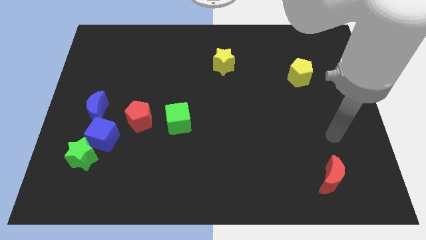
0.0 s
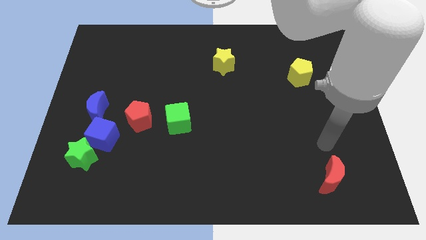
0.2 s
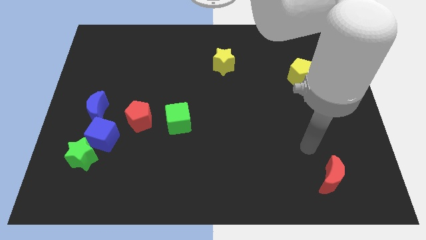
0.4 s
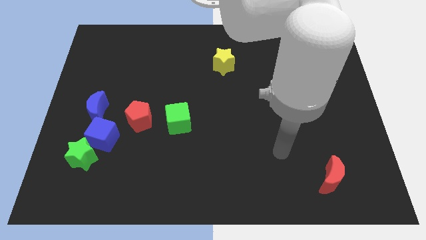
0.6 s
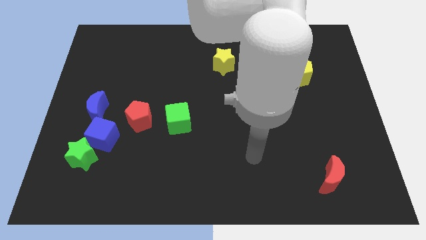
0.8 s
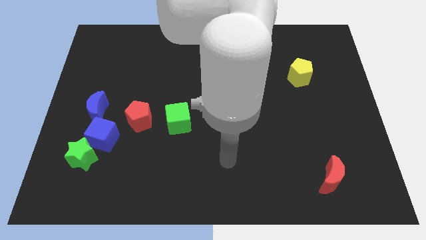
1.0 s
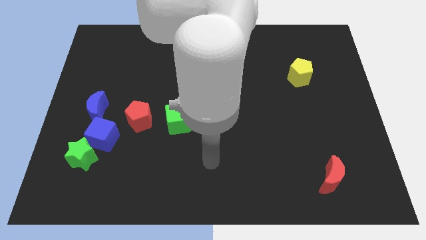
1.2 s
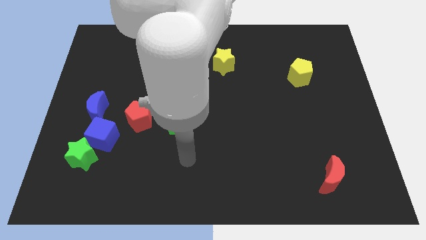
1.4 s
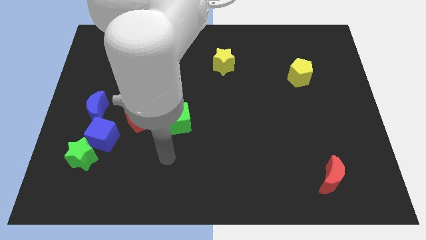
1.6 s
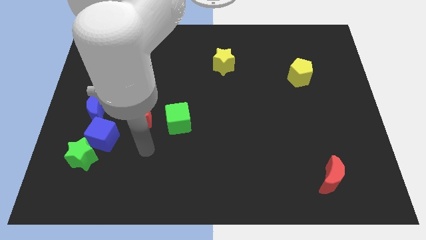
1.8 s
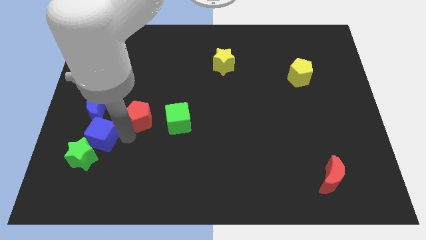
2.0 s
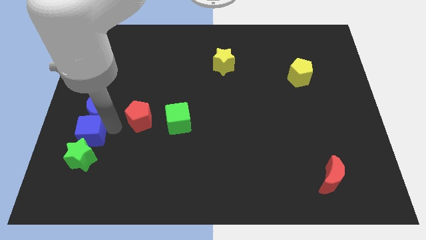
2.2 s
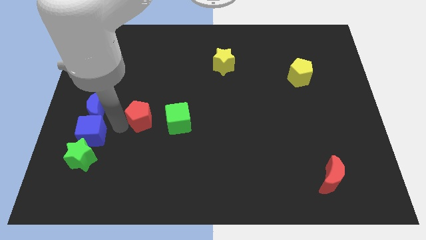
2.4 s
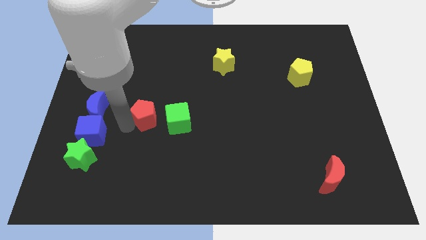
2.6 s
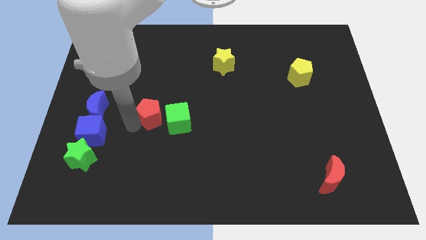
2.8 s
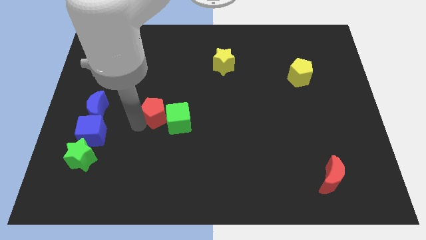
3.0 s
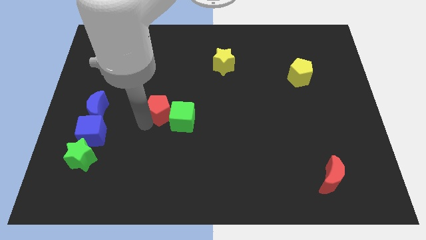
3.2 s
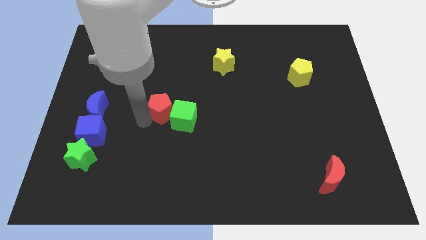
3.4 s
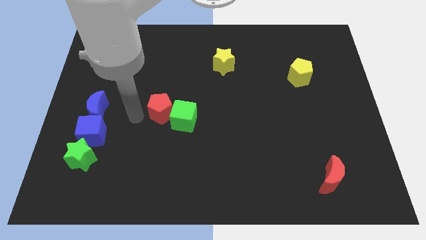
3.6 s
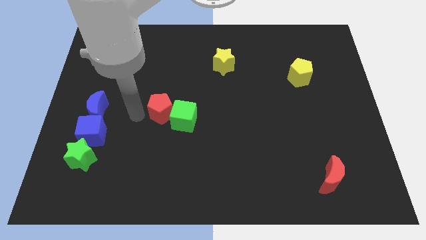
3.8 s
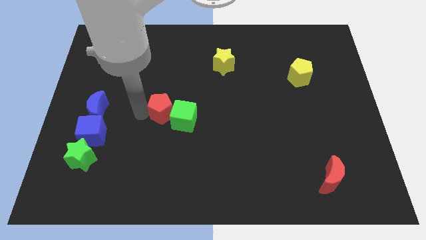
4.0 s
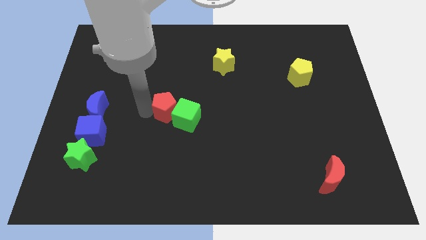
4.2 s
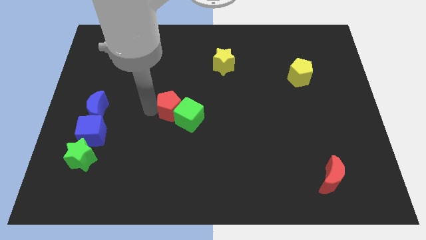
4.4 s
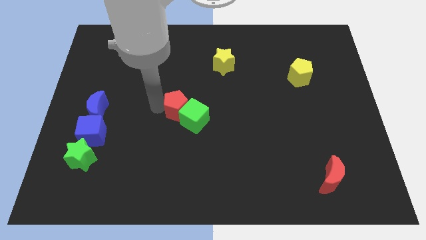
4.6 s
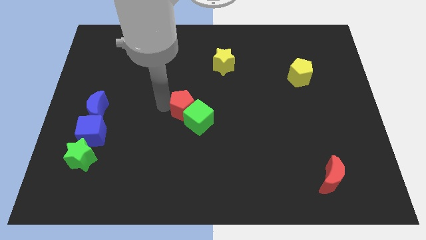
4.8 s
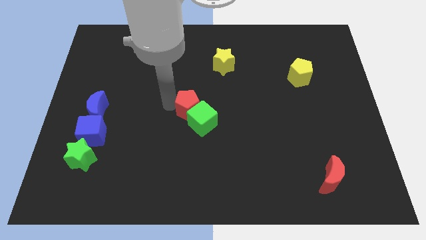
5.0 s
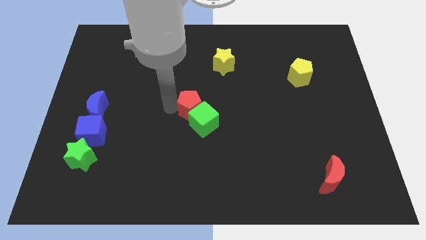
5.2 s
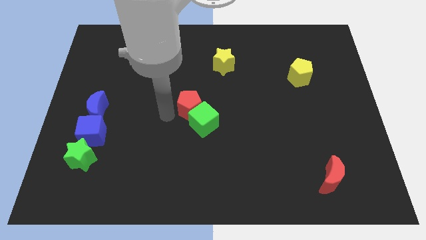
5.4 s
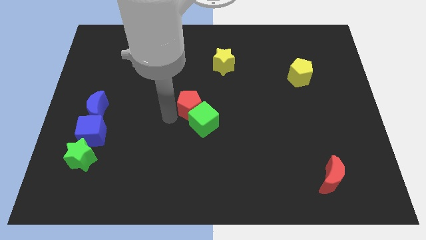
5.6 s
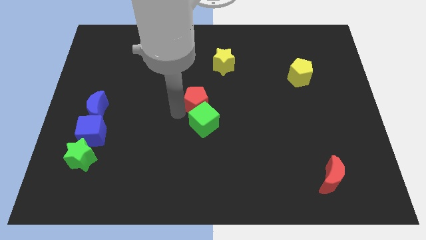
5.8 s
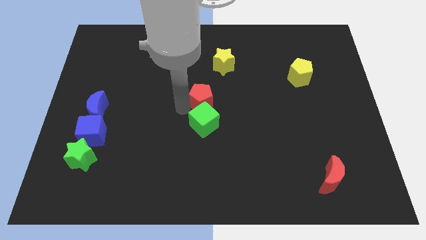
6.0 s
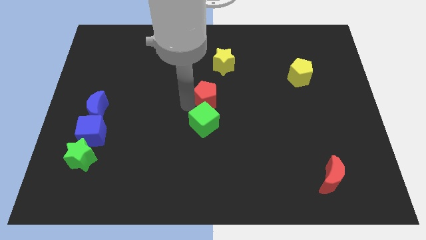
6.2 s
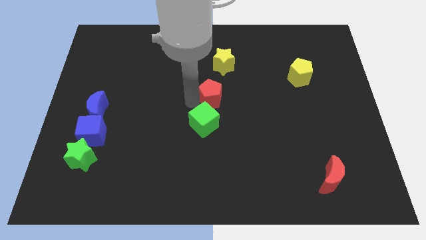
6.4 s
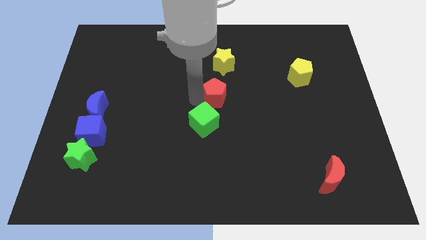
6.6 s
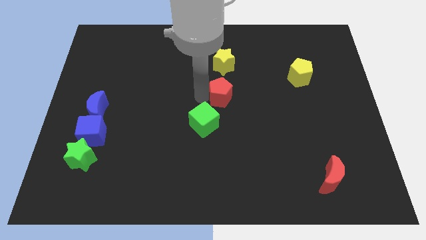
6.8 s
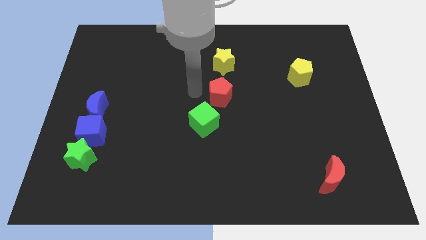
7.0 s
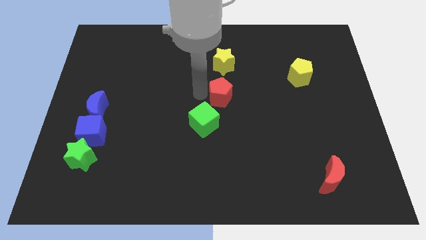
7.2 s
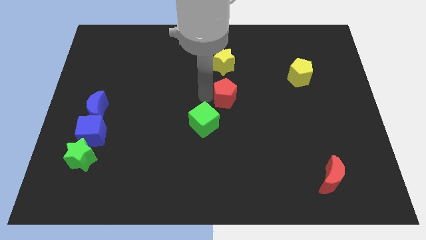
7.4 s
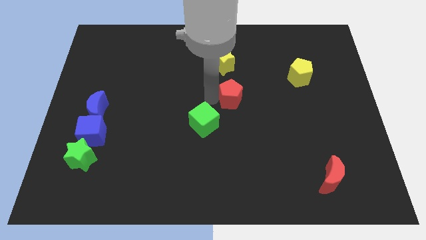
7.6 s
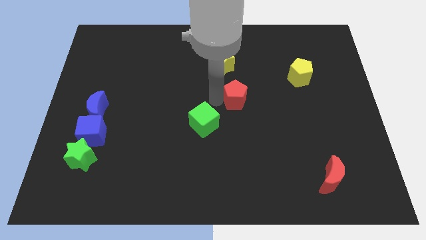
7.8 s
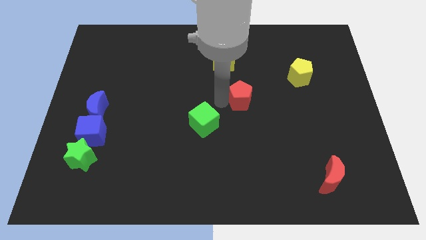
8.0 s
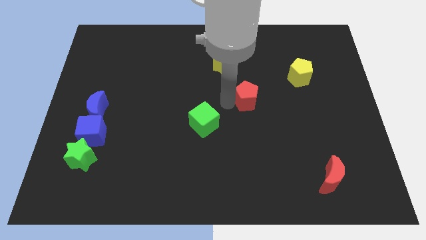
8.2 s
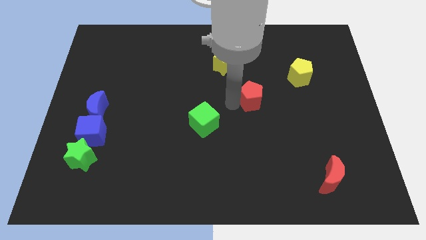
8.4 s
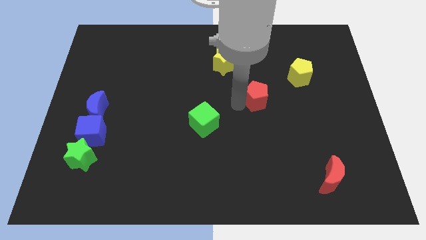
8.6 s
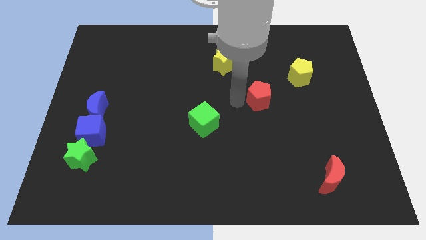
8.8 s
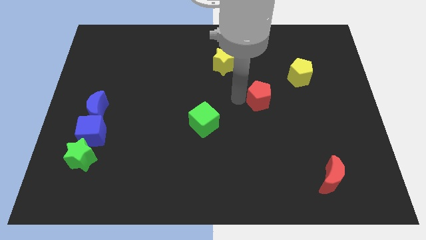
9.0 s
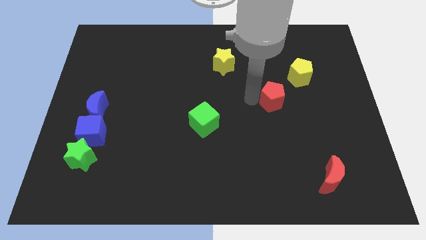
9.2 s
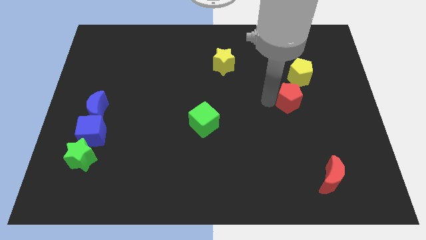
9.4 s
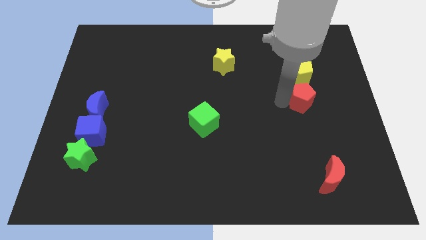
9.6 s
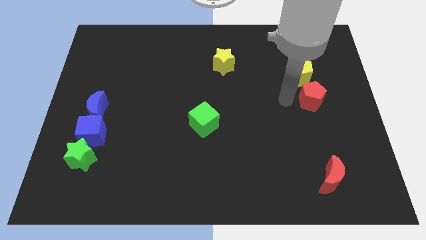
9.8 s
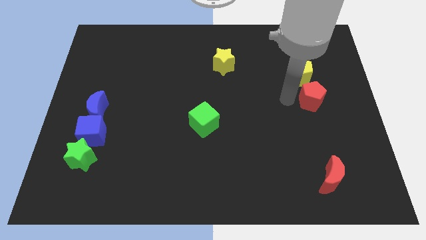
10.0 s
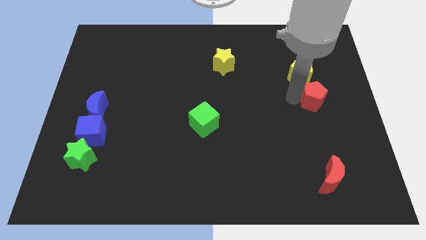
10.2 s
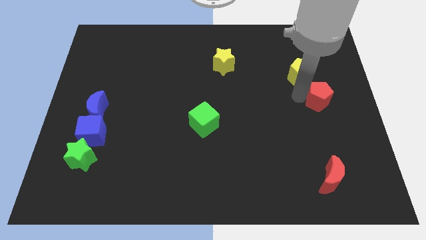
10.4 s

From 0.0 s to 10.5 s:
push the red pentagon to the right side of the board

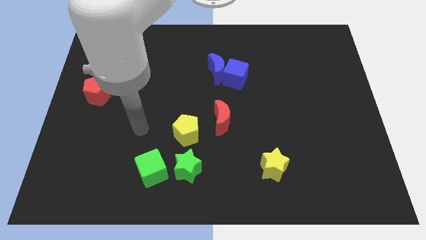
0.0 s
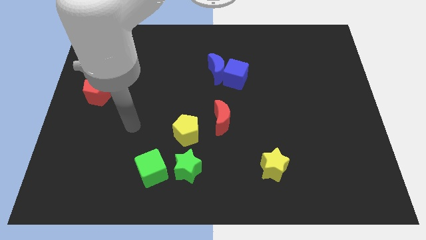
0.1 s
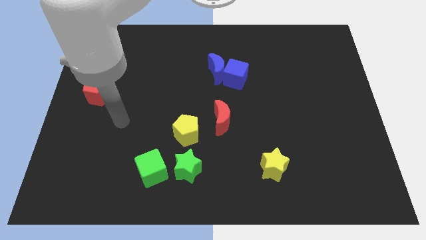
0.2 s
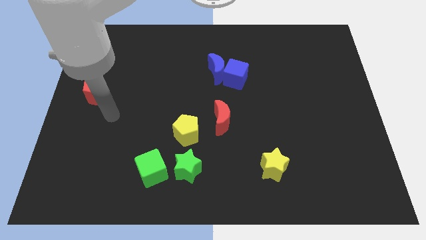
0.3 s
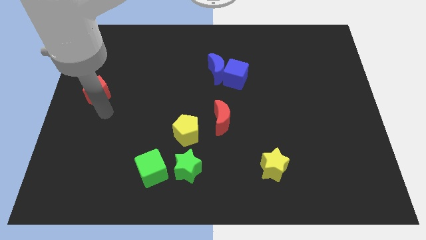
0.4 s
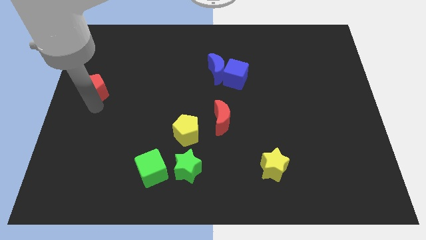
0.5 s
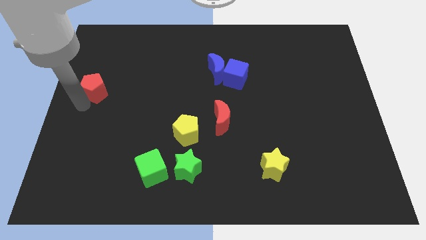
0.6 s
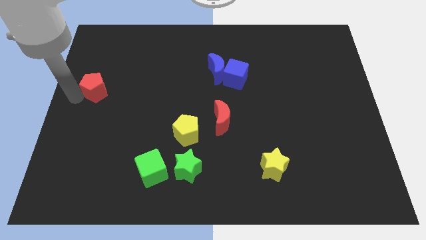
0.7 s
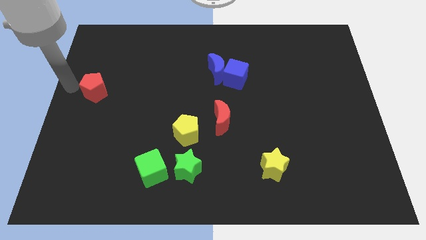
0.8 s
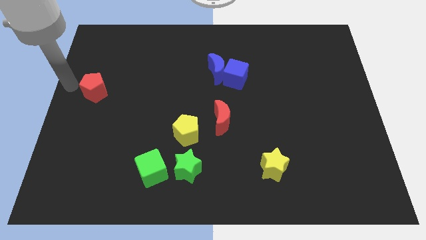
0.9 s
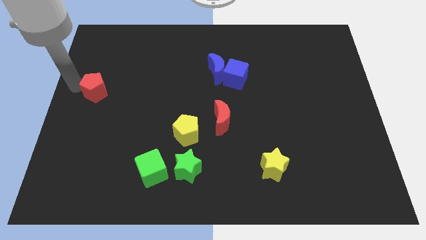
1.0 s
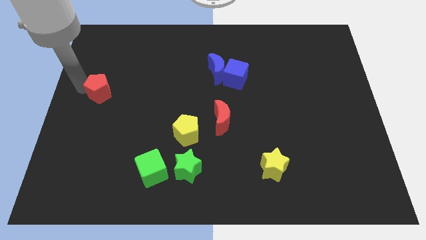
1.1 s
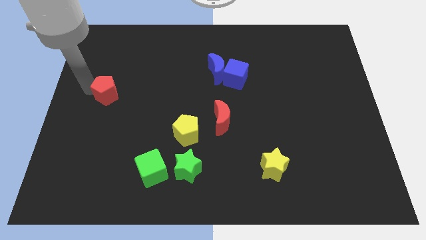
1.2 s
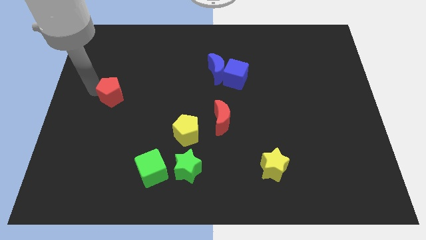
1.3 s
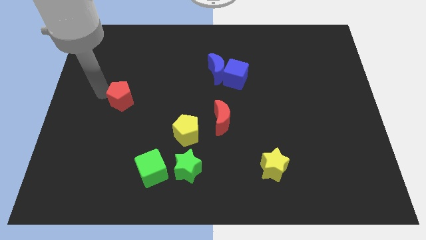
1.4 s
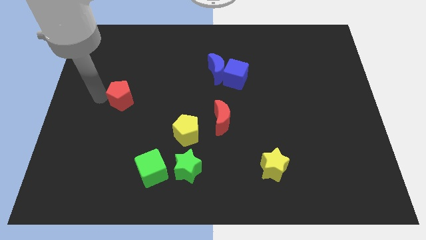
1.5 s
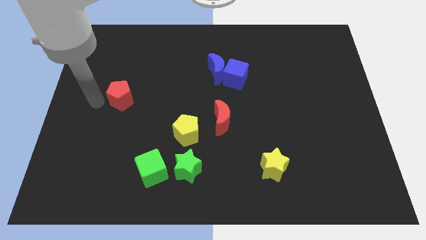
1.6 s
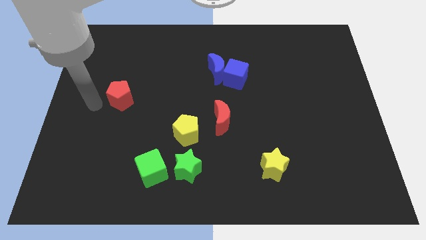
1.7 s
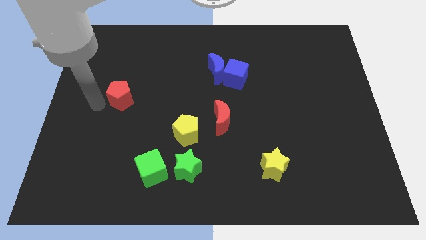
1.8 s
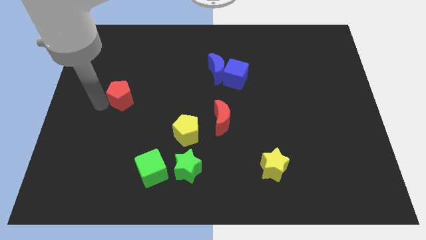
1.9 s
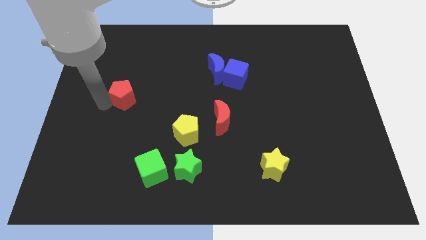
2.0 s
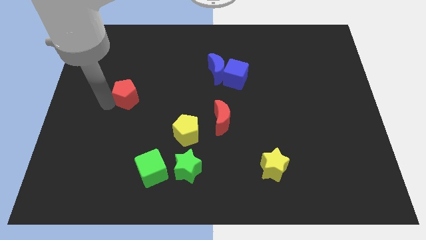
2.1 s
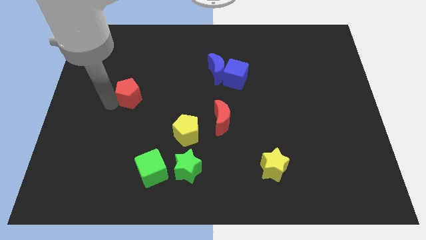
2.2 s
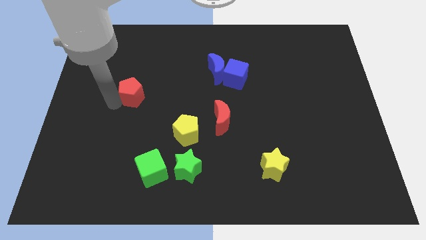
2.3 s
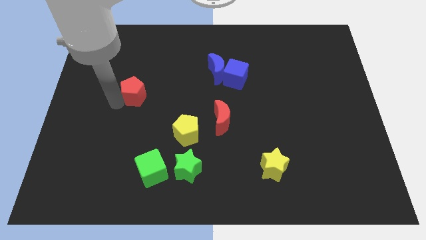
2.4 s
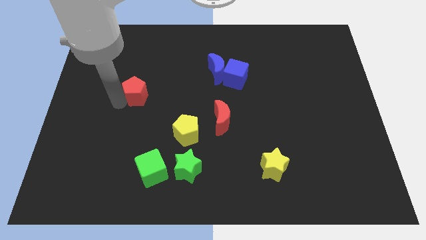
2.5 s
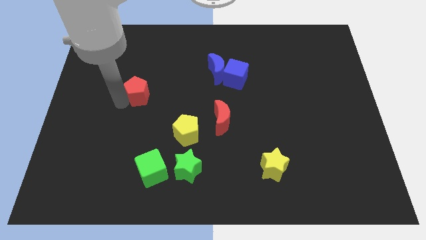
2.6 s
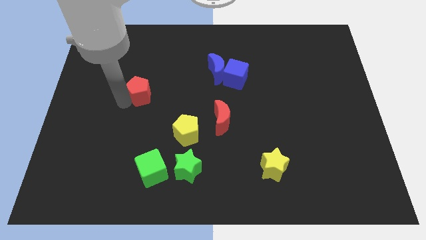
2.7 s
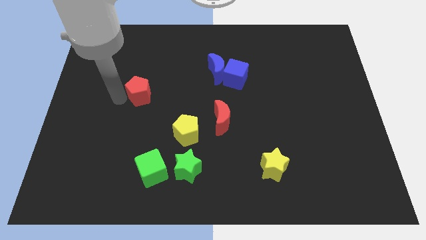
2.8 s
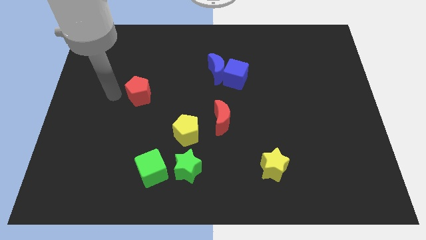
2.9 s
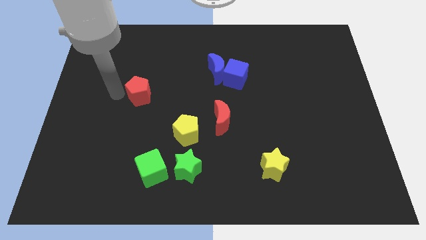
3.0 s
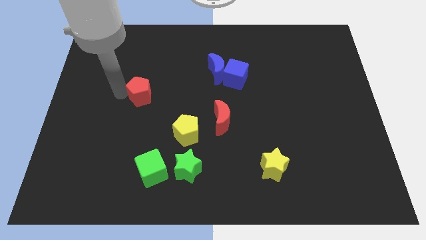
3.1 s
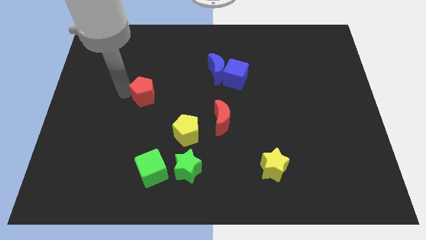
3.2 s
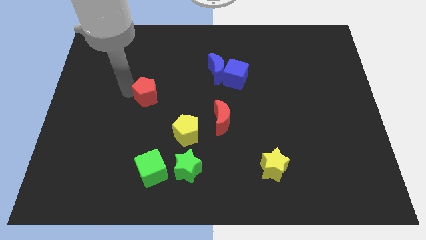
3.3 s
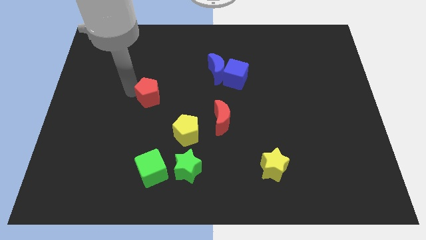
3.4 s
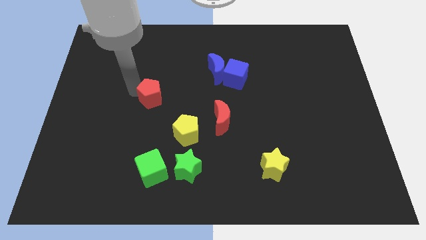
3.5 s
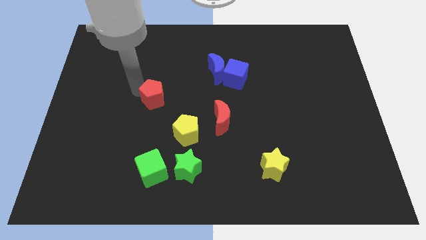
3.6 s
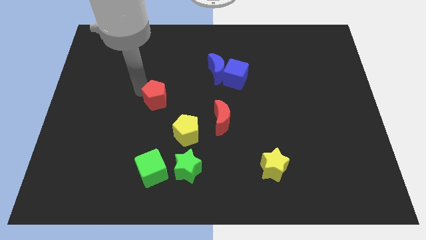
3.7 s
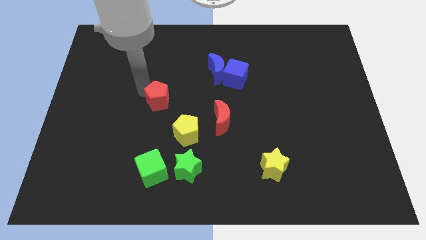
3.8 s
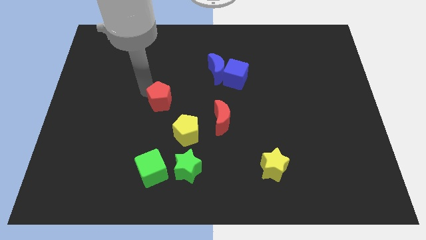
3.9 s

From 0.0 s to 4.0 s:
move the red pentagon to the center of the board
